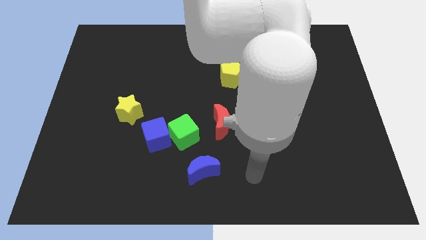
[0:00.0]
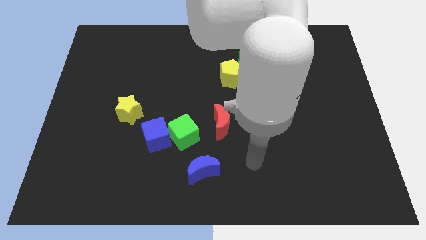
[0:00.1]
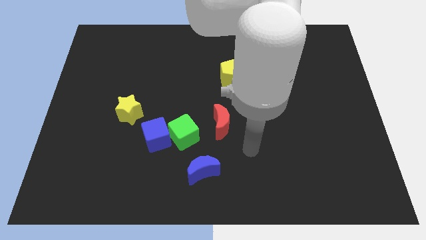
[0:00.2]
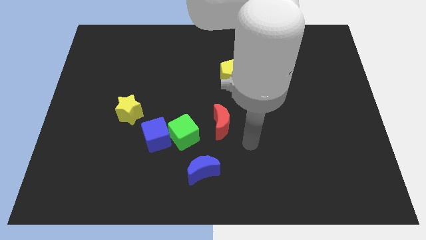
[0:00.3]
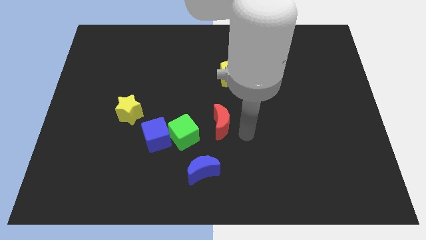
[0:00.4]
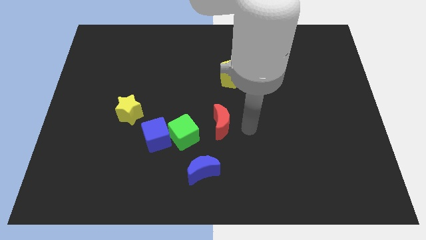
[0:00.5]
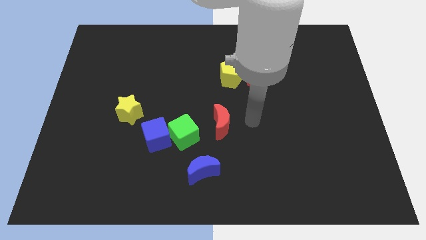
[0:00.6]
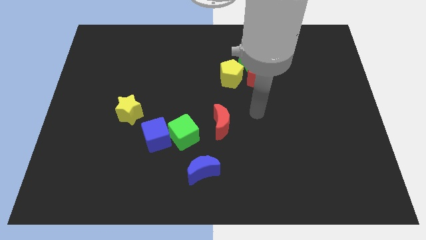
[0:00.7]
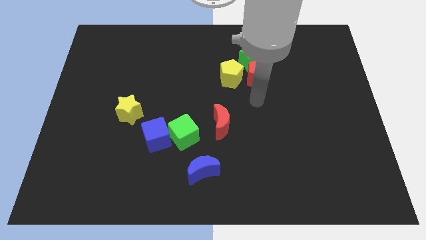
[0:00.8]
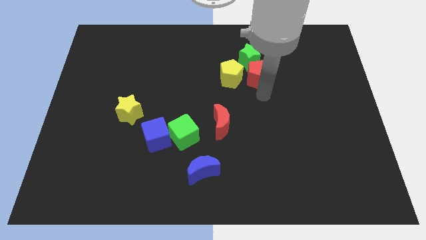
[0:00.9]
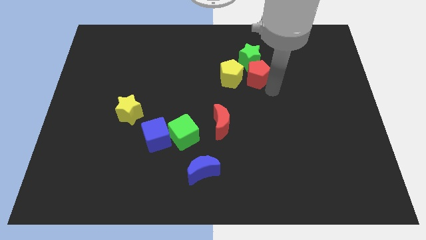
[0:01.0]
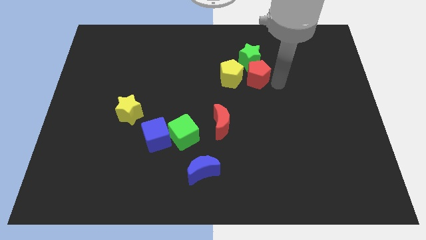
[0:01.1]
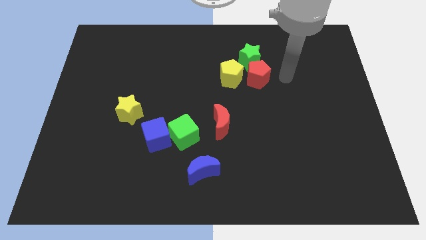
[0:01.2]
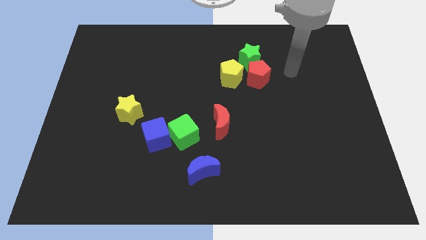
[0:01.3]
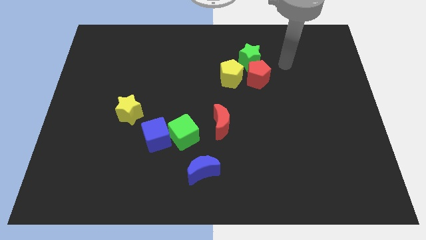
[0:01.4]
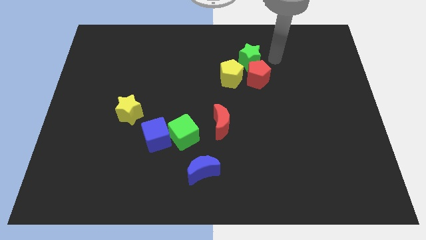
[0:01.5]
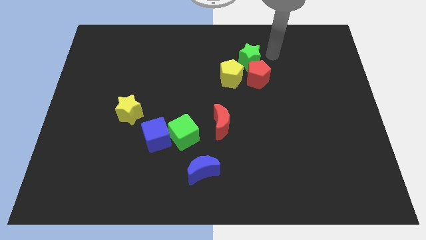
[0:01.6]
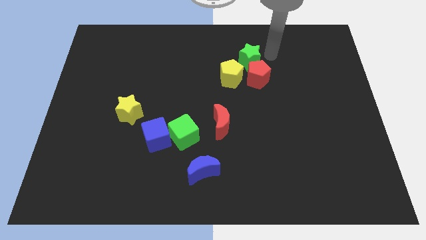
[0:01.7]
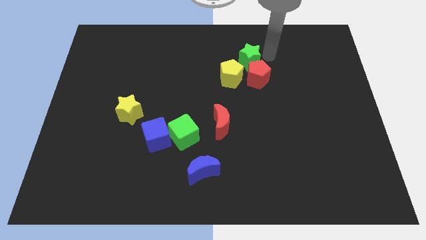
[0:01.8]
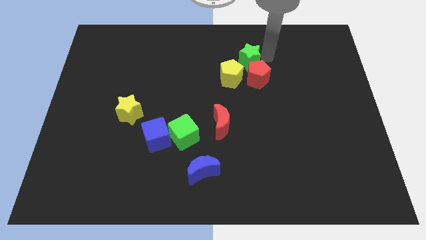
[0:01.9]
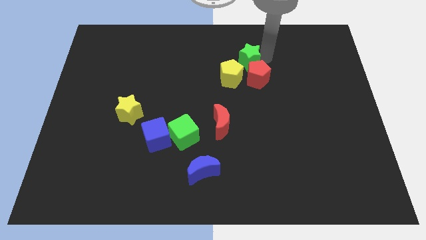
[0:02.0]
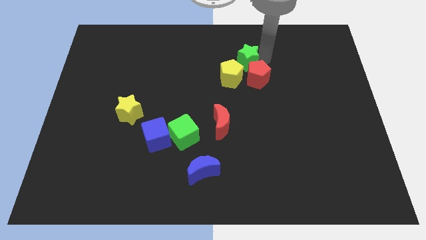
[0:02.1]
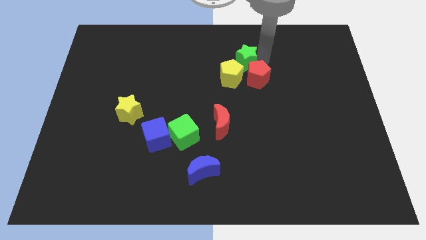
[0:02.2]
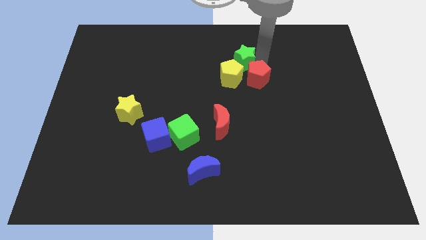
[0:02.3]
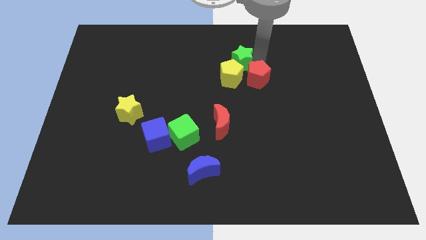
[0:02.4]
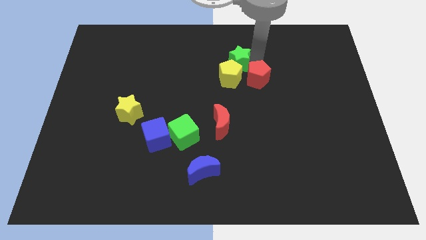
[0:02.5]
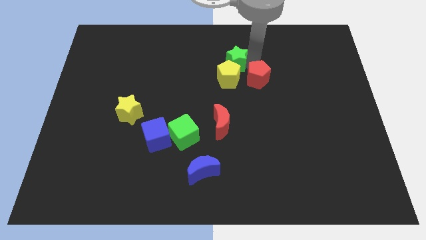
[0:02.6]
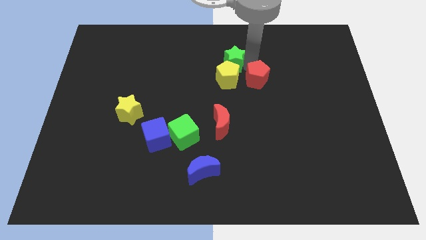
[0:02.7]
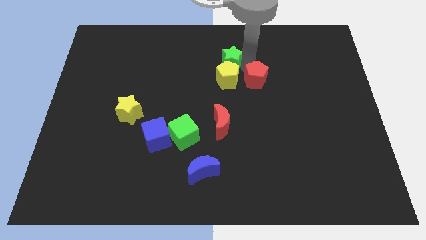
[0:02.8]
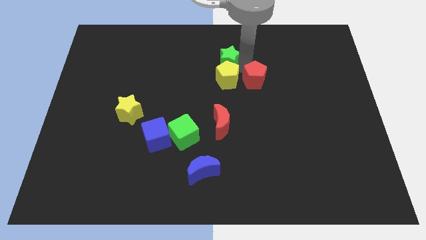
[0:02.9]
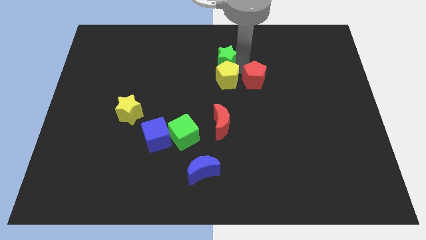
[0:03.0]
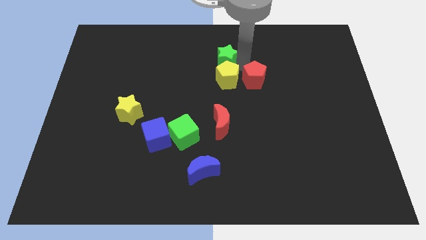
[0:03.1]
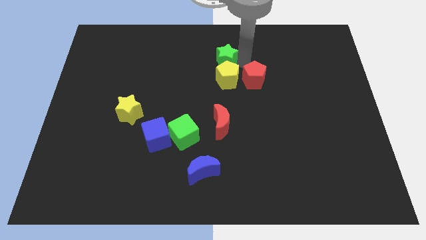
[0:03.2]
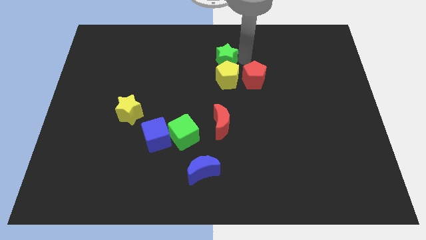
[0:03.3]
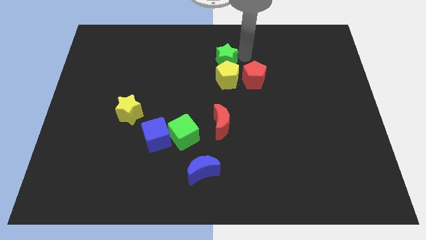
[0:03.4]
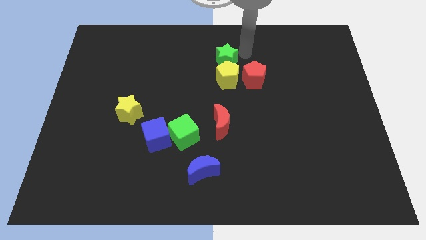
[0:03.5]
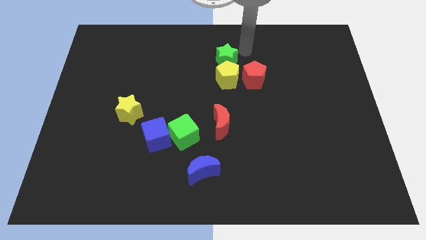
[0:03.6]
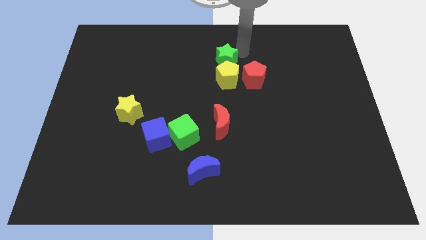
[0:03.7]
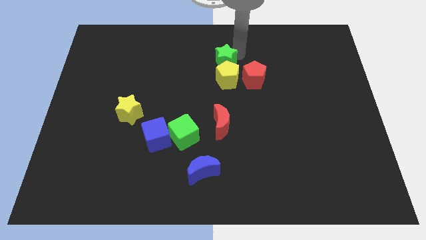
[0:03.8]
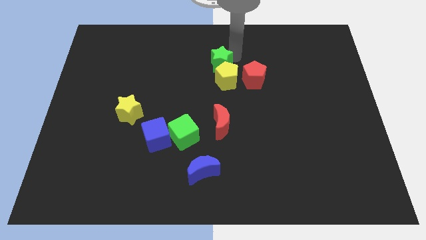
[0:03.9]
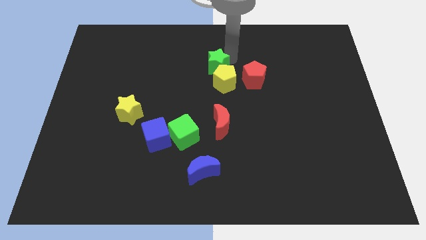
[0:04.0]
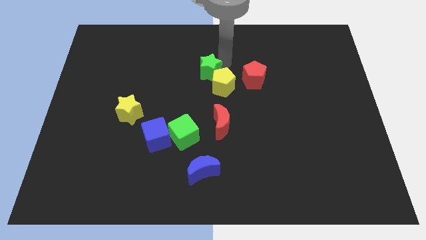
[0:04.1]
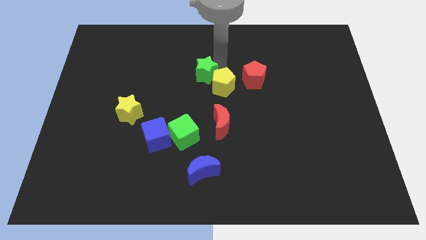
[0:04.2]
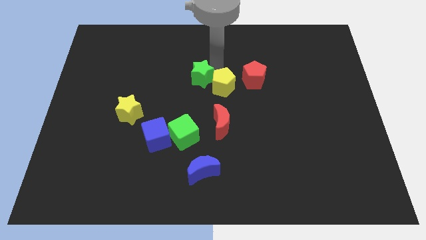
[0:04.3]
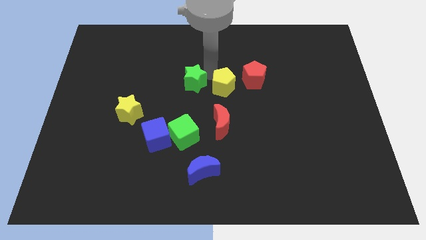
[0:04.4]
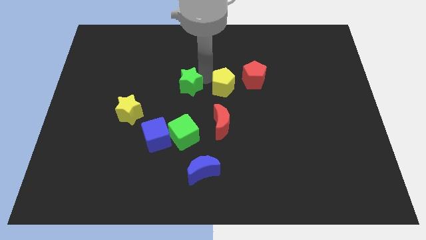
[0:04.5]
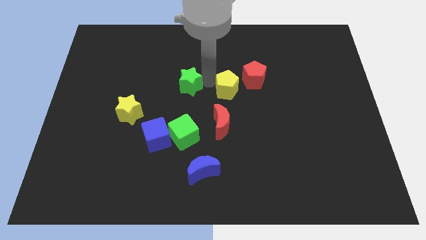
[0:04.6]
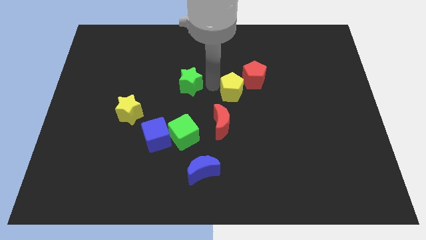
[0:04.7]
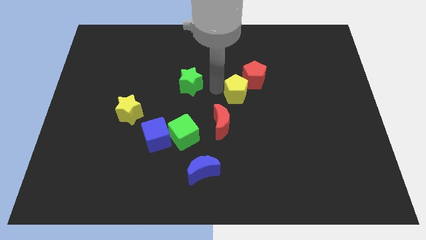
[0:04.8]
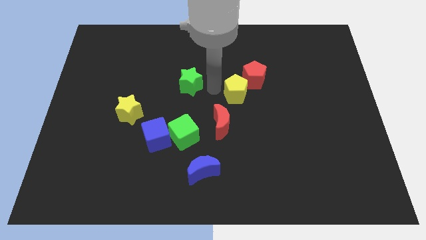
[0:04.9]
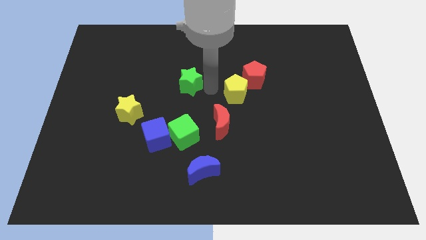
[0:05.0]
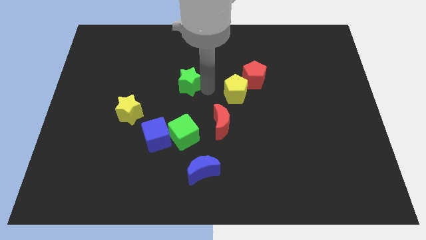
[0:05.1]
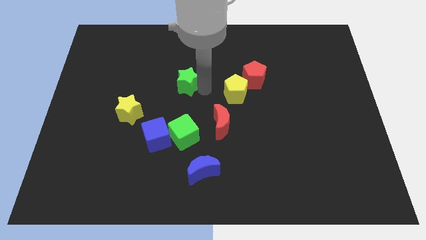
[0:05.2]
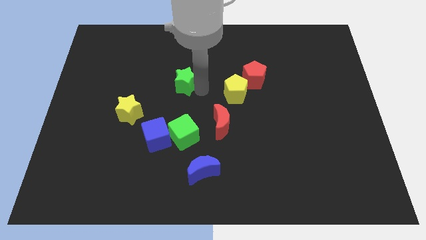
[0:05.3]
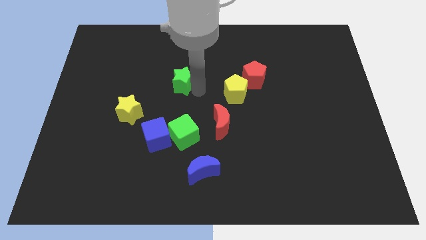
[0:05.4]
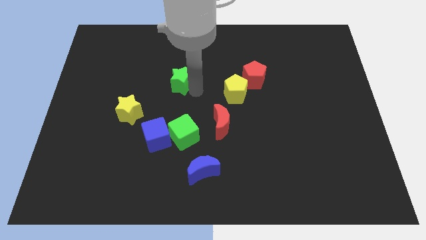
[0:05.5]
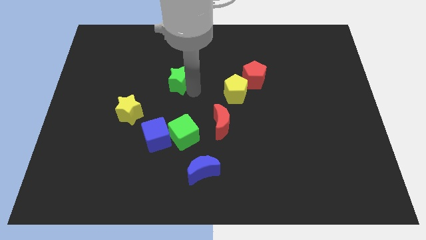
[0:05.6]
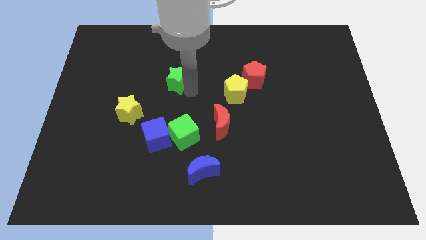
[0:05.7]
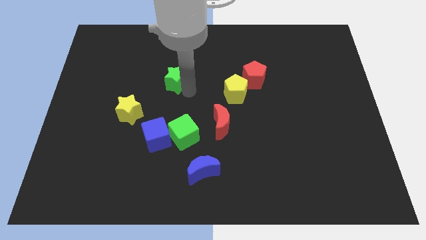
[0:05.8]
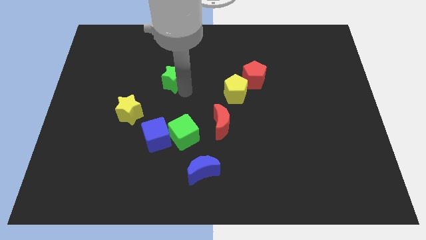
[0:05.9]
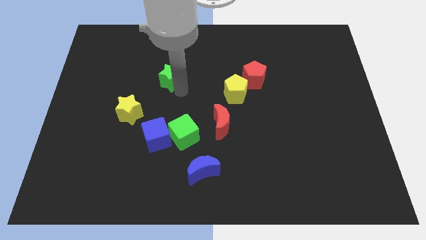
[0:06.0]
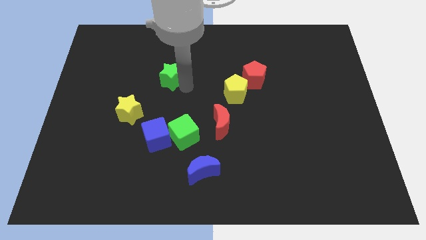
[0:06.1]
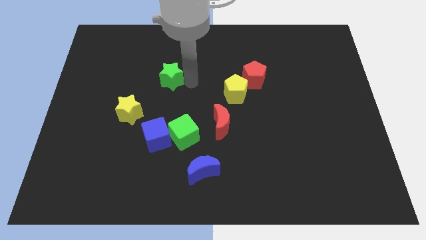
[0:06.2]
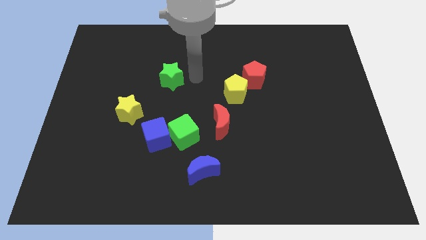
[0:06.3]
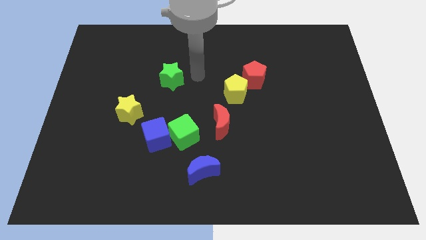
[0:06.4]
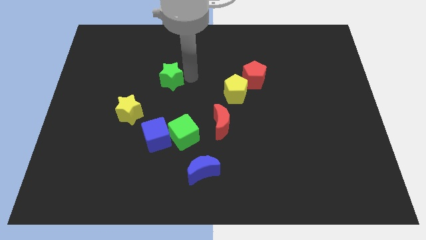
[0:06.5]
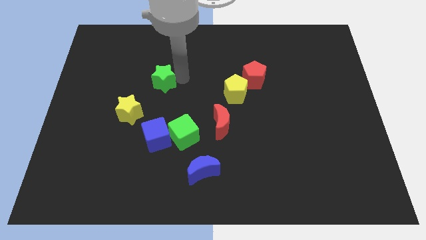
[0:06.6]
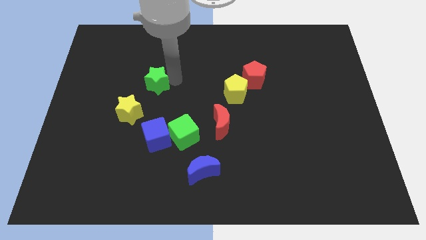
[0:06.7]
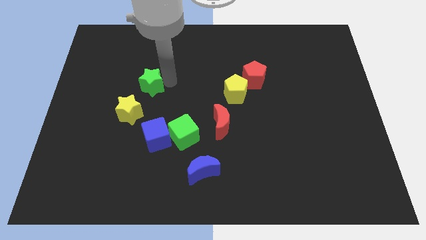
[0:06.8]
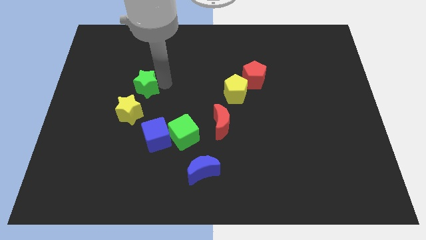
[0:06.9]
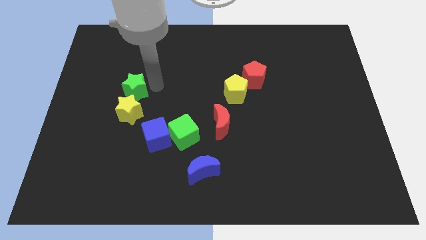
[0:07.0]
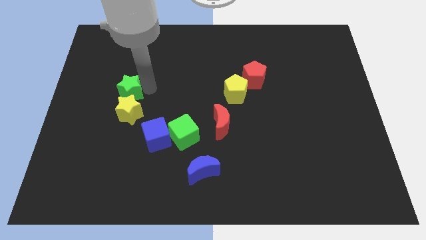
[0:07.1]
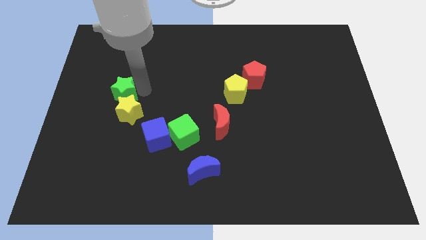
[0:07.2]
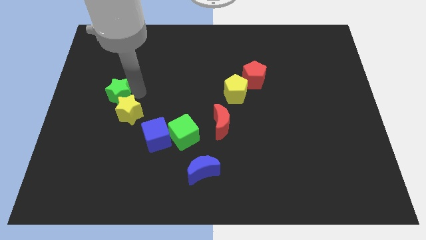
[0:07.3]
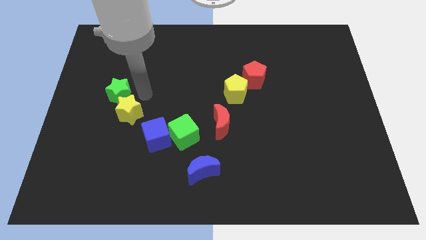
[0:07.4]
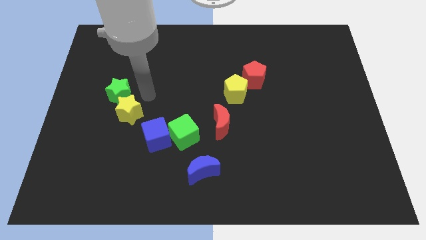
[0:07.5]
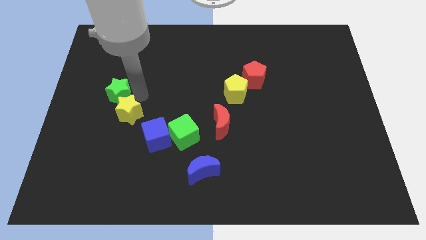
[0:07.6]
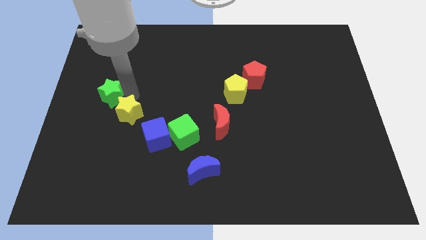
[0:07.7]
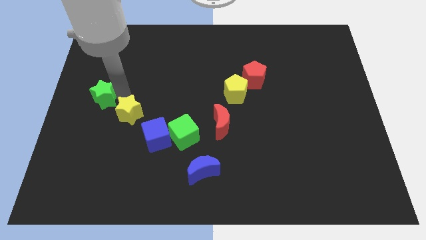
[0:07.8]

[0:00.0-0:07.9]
move the green star to the left side
